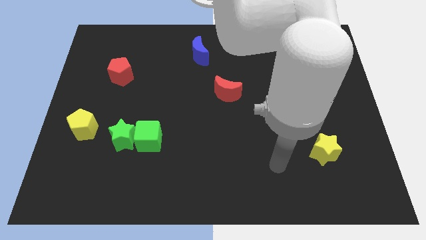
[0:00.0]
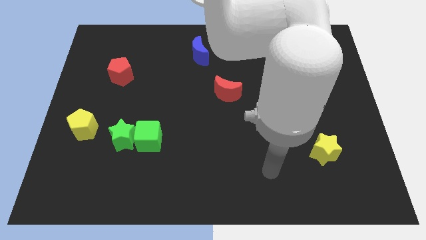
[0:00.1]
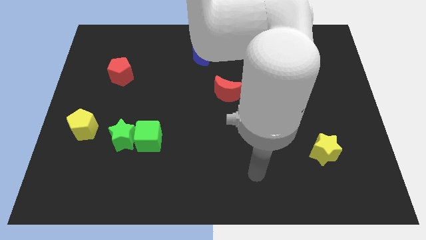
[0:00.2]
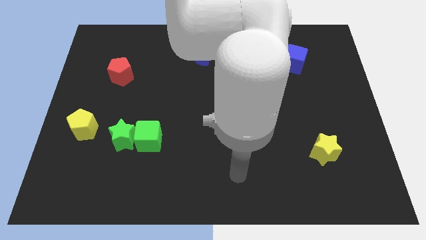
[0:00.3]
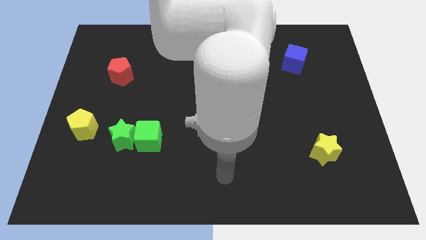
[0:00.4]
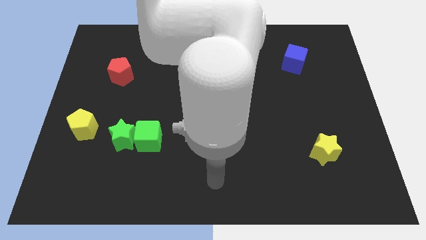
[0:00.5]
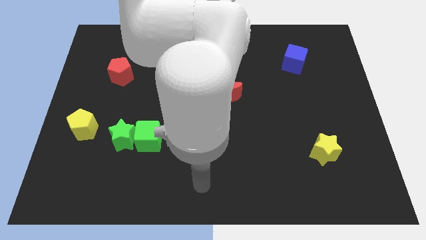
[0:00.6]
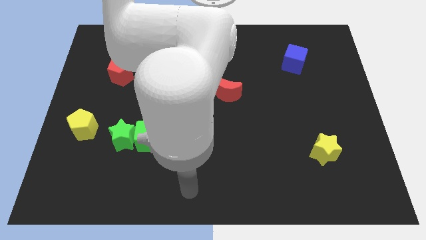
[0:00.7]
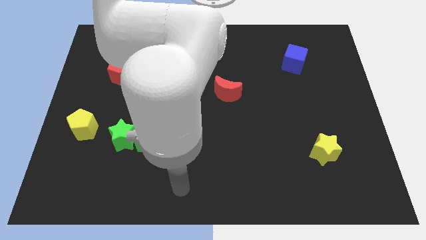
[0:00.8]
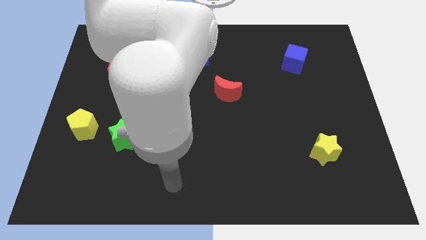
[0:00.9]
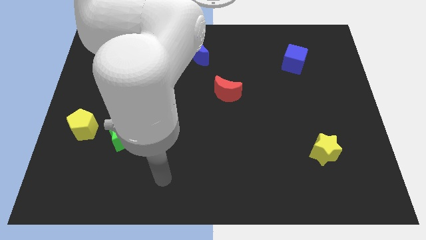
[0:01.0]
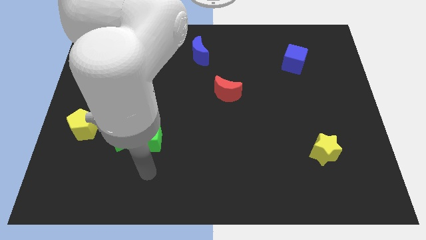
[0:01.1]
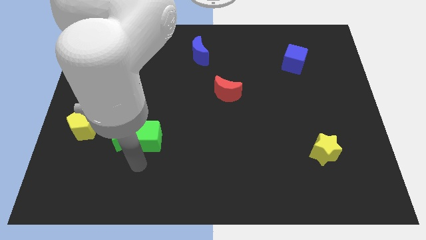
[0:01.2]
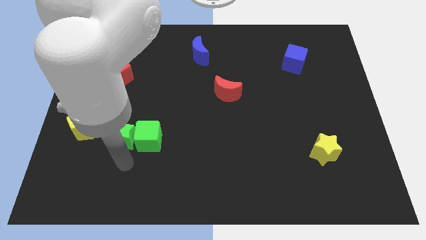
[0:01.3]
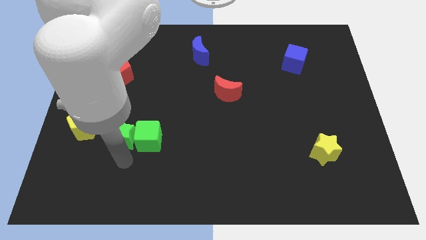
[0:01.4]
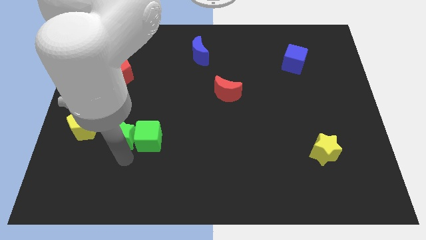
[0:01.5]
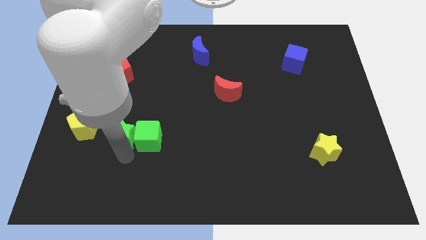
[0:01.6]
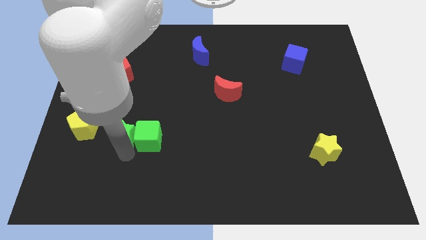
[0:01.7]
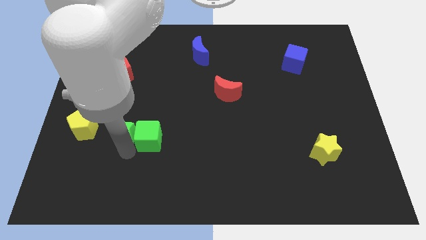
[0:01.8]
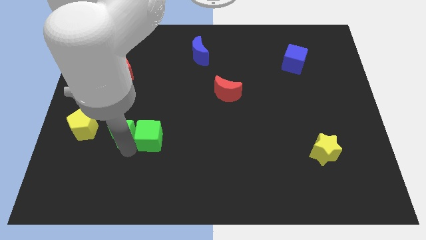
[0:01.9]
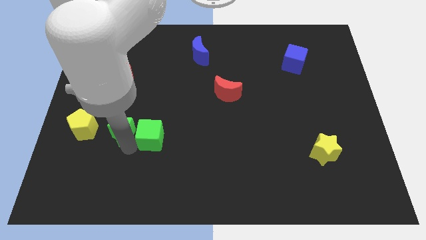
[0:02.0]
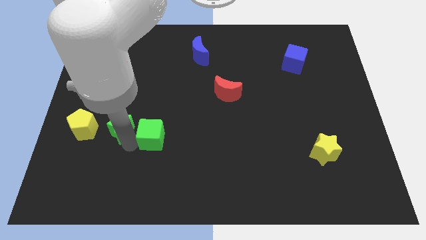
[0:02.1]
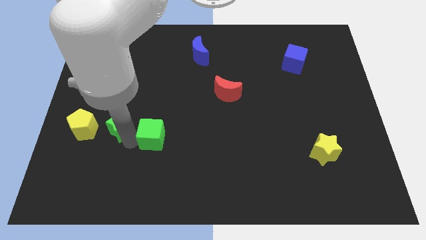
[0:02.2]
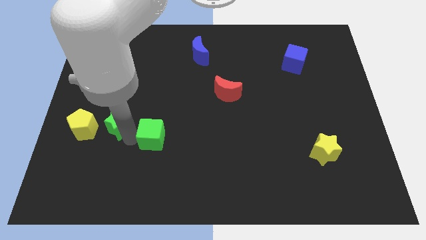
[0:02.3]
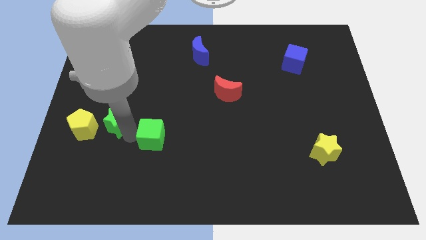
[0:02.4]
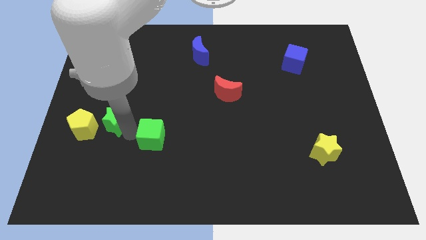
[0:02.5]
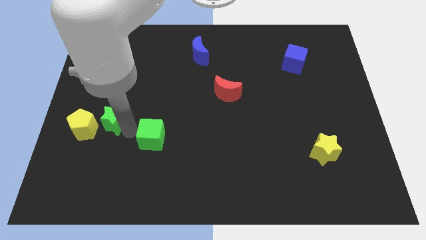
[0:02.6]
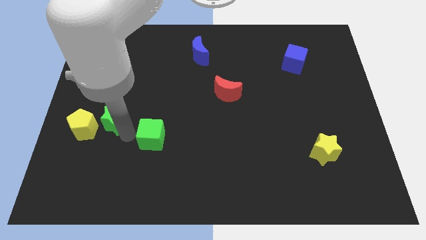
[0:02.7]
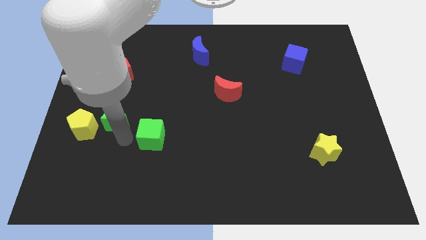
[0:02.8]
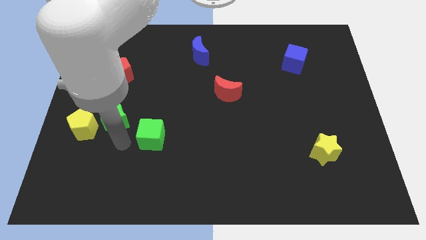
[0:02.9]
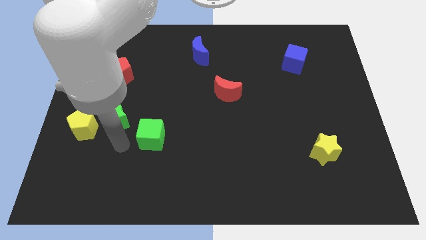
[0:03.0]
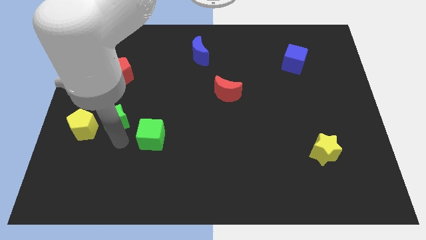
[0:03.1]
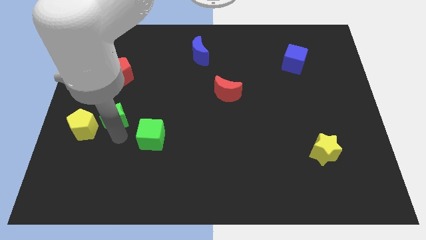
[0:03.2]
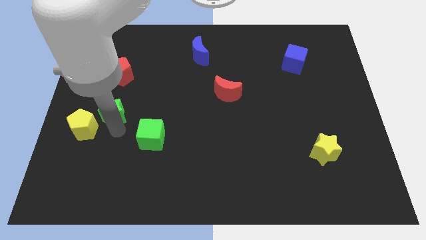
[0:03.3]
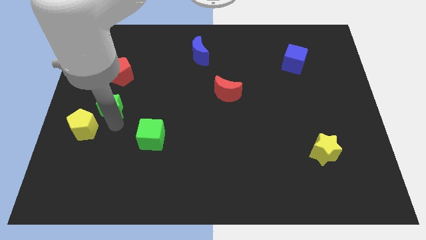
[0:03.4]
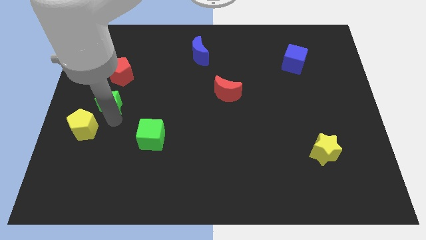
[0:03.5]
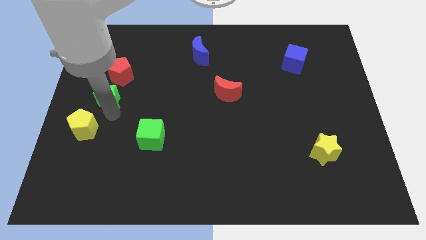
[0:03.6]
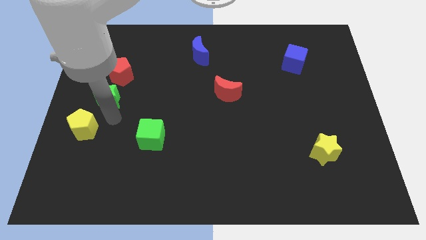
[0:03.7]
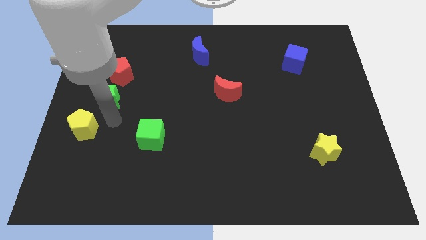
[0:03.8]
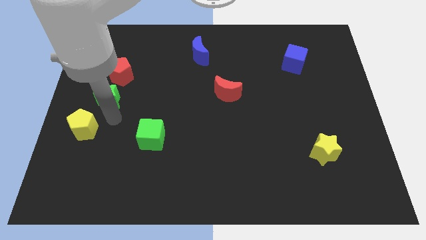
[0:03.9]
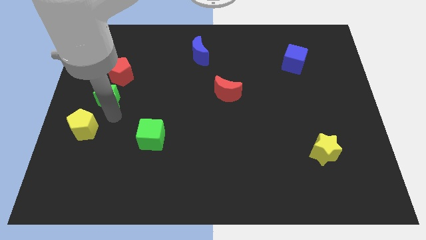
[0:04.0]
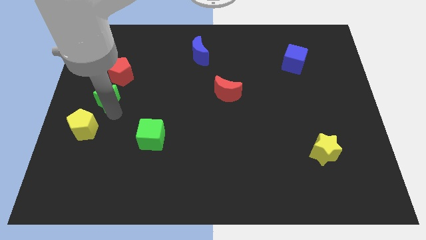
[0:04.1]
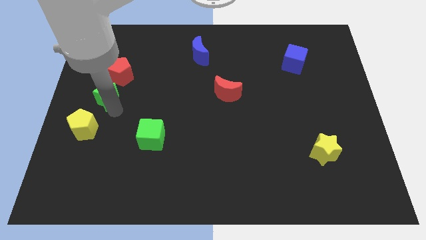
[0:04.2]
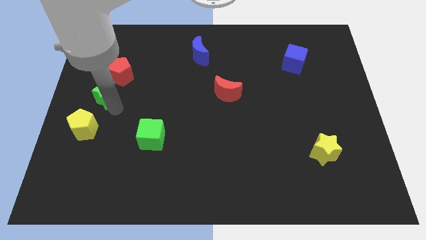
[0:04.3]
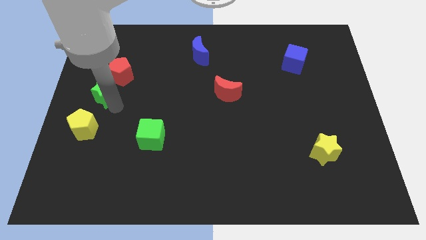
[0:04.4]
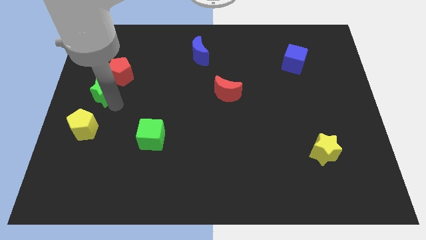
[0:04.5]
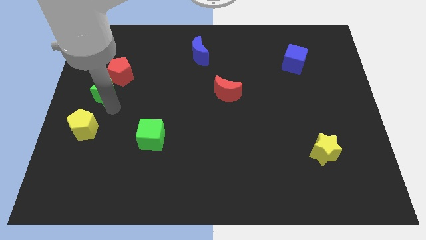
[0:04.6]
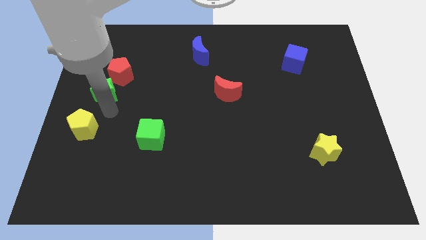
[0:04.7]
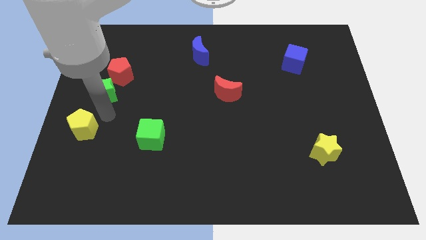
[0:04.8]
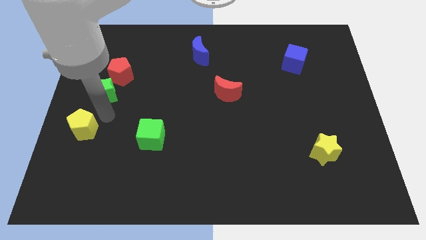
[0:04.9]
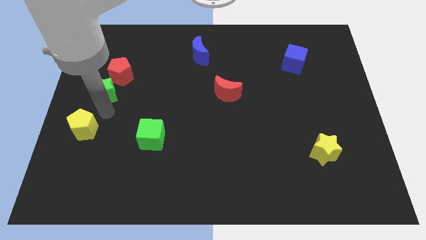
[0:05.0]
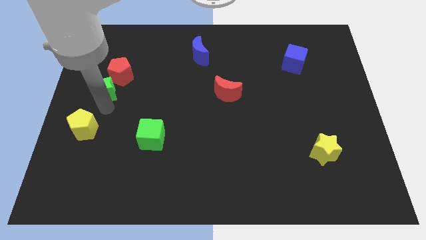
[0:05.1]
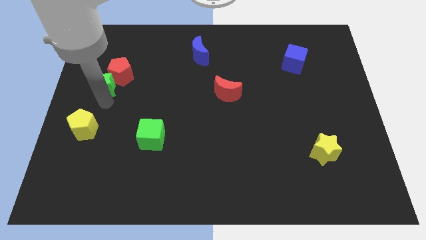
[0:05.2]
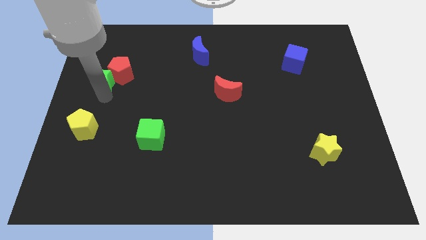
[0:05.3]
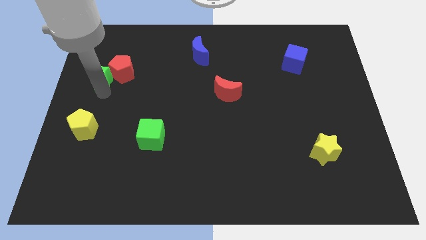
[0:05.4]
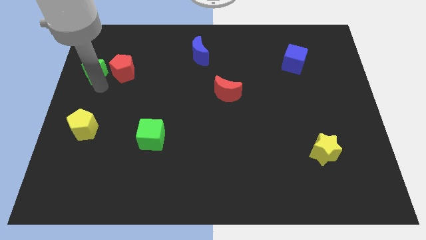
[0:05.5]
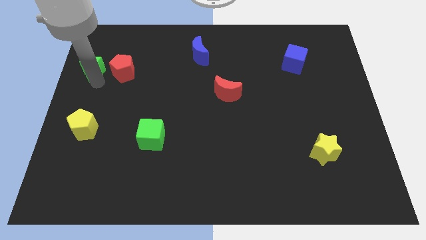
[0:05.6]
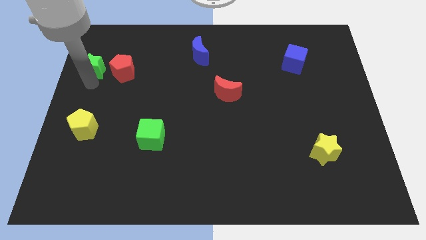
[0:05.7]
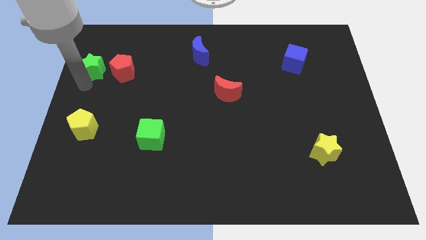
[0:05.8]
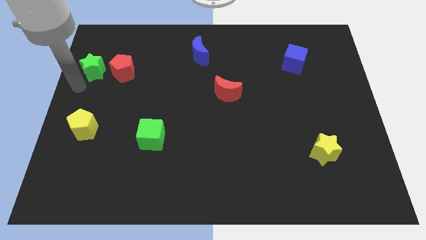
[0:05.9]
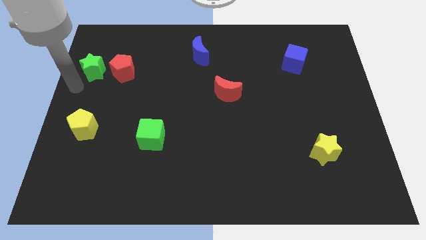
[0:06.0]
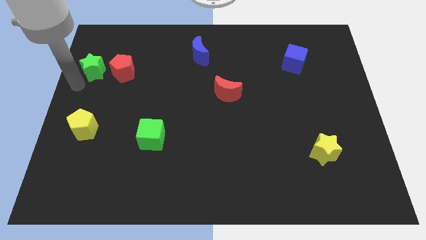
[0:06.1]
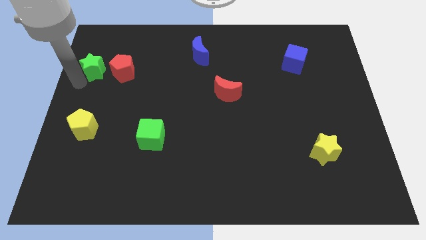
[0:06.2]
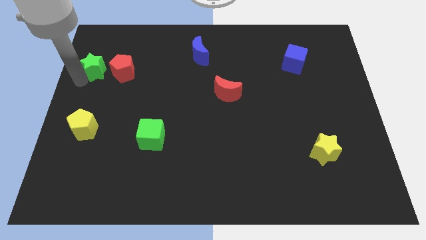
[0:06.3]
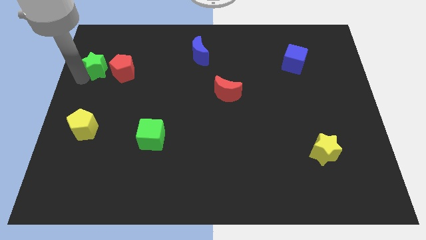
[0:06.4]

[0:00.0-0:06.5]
push the green star to the top left side of the red pentagon
